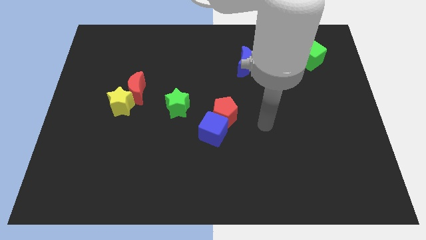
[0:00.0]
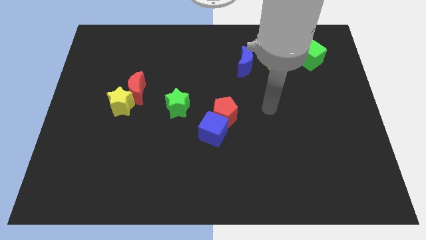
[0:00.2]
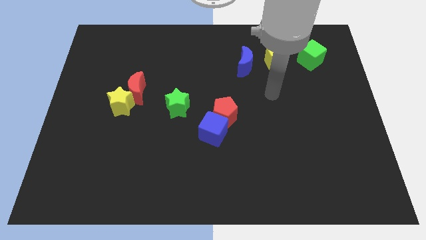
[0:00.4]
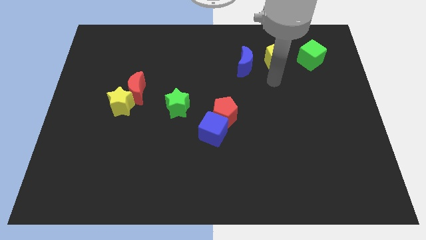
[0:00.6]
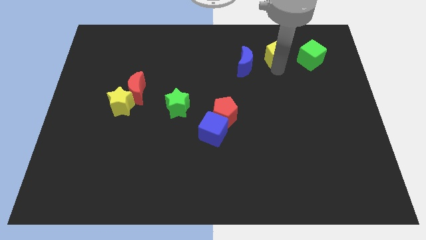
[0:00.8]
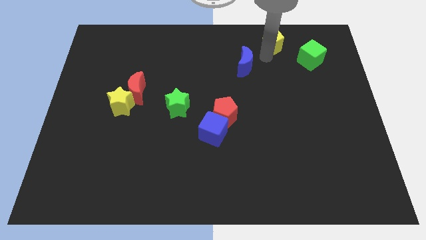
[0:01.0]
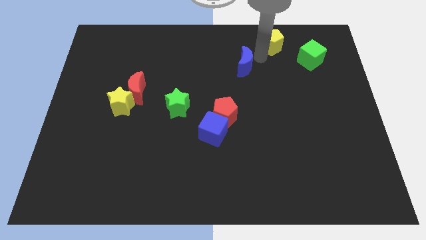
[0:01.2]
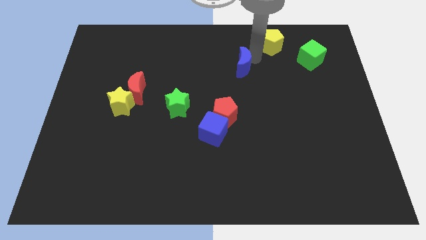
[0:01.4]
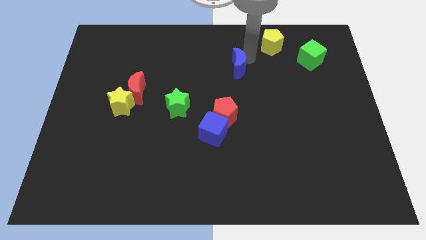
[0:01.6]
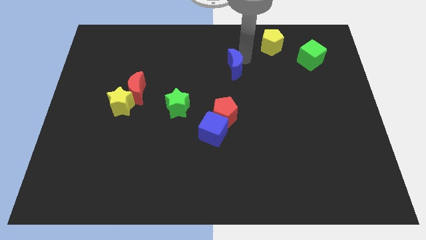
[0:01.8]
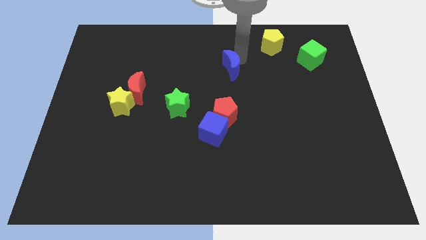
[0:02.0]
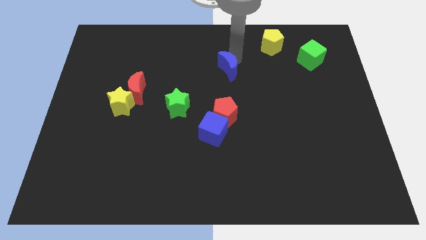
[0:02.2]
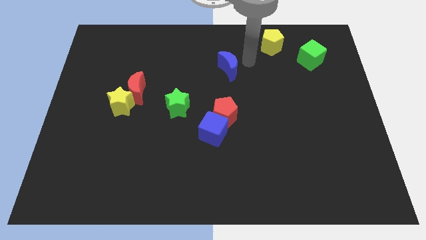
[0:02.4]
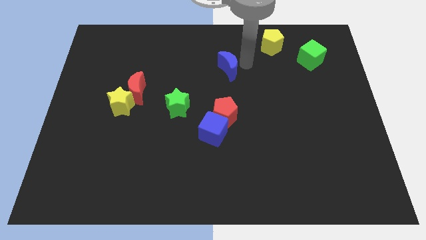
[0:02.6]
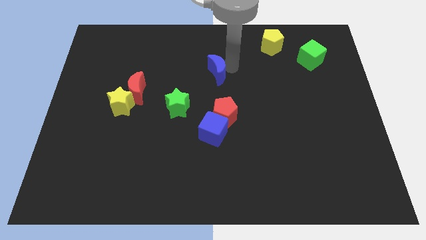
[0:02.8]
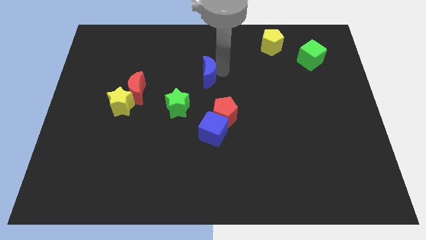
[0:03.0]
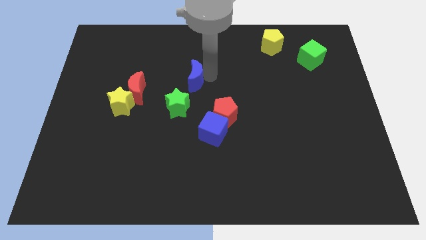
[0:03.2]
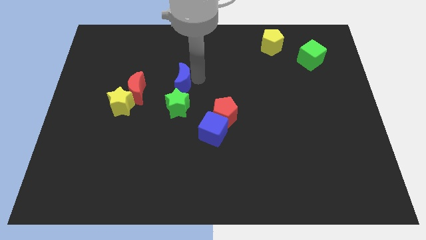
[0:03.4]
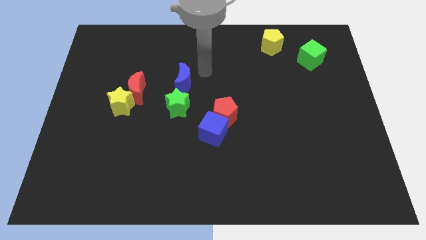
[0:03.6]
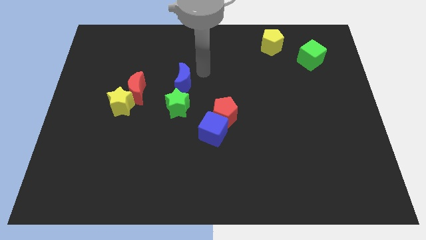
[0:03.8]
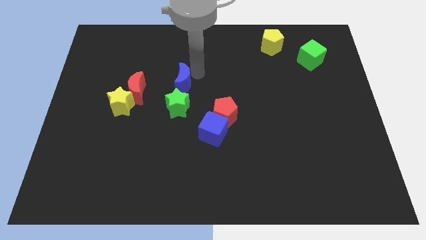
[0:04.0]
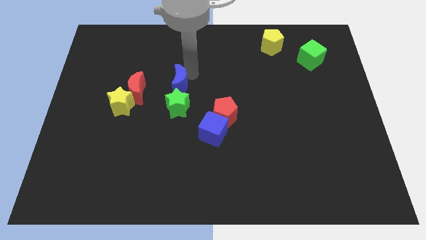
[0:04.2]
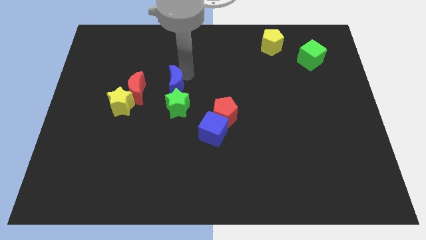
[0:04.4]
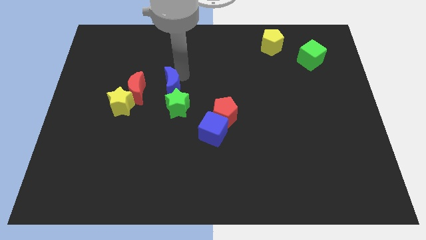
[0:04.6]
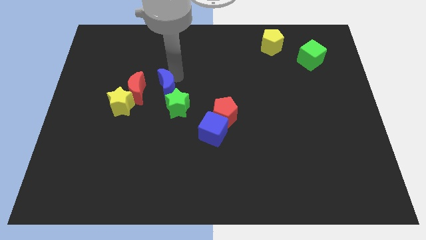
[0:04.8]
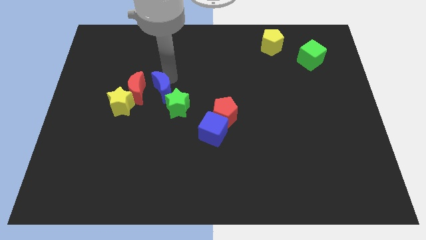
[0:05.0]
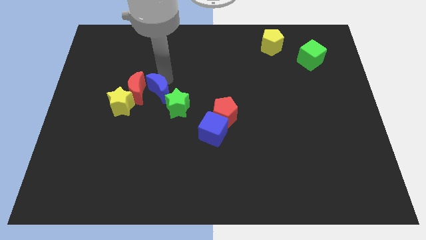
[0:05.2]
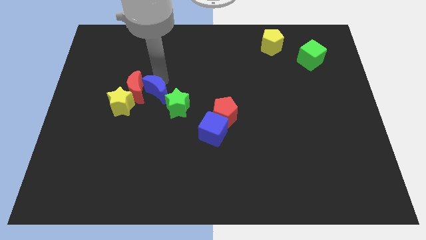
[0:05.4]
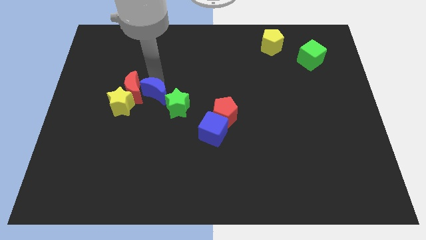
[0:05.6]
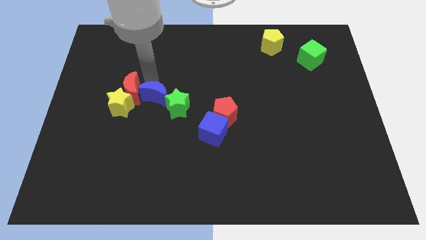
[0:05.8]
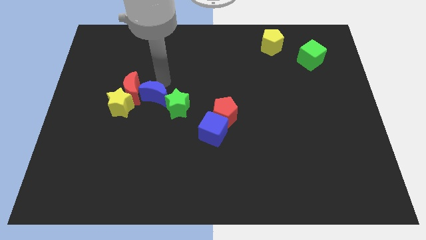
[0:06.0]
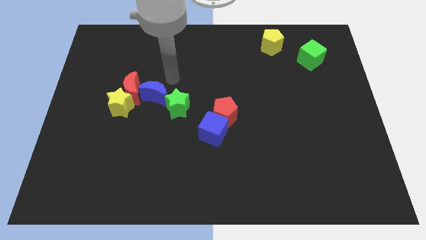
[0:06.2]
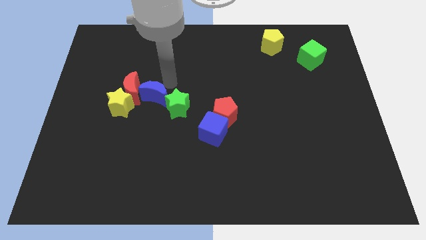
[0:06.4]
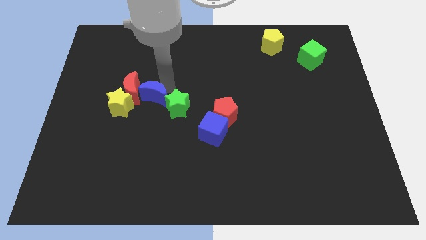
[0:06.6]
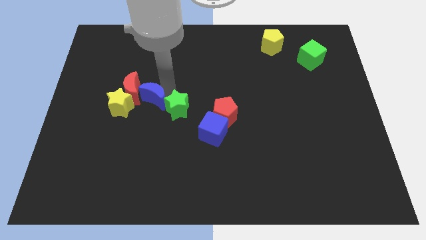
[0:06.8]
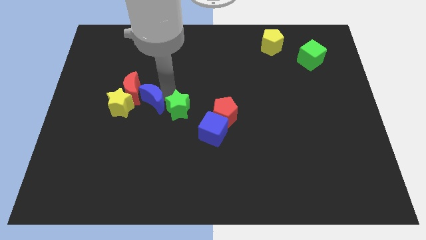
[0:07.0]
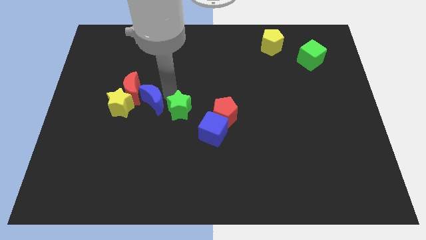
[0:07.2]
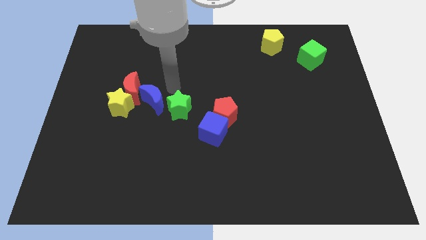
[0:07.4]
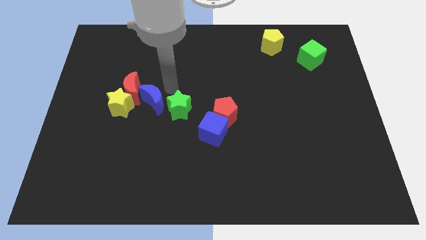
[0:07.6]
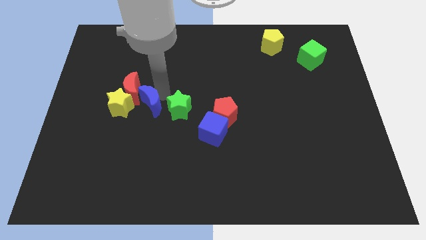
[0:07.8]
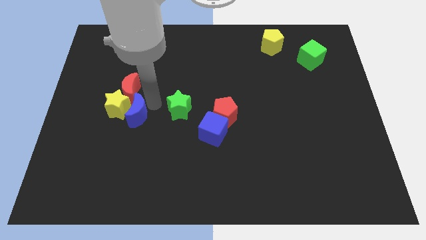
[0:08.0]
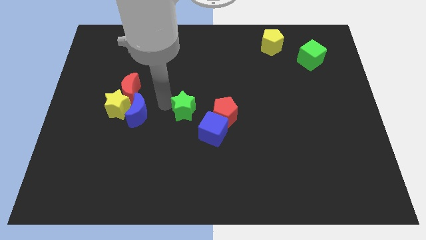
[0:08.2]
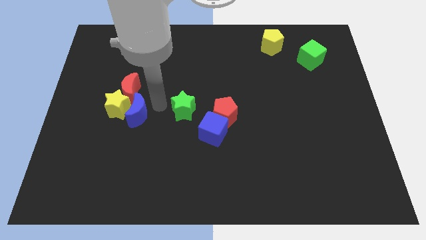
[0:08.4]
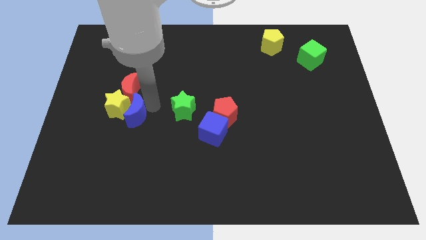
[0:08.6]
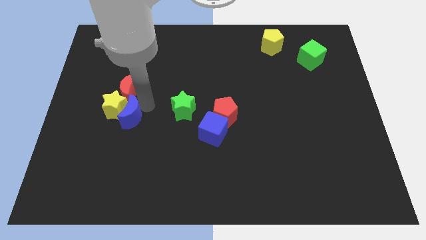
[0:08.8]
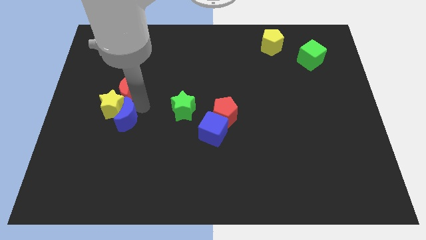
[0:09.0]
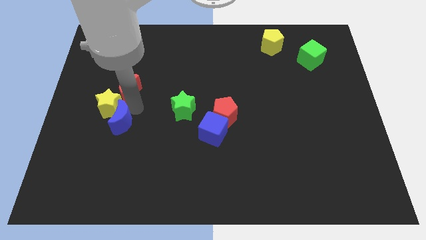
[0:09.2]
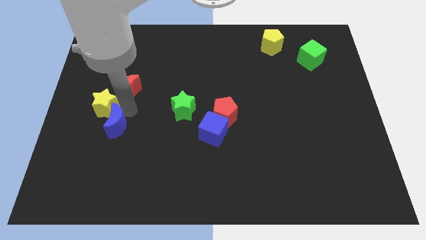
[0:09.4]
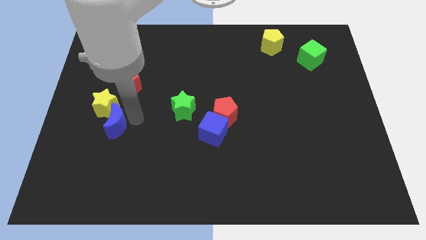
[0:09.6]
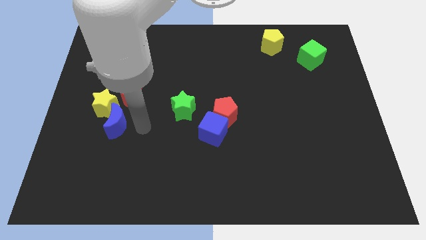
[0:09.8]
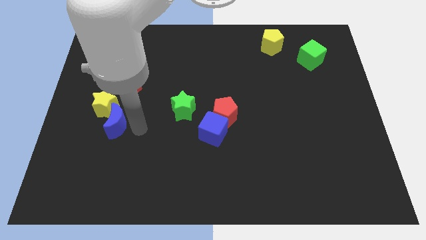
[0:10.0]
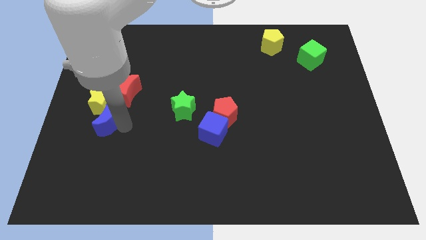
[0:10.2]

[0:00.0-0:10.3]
move the blue moon to the bottom left side of the red moon
